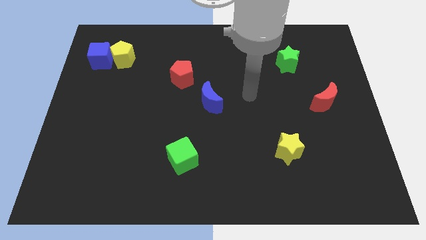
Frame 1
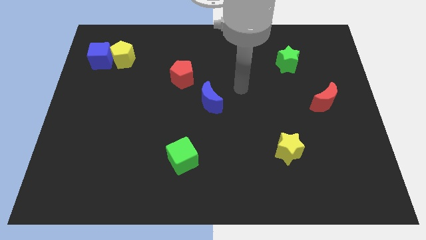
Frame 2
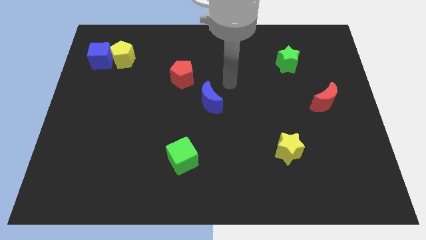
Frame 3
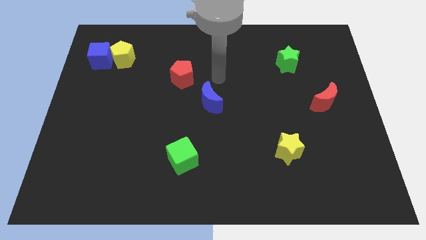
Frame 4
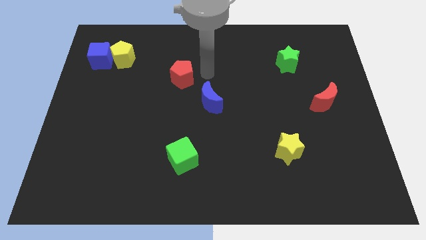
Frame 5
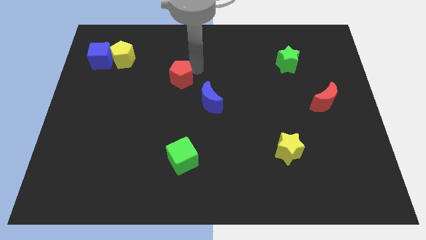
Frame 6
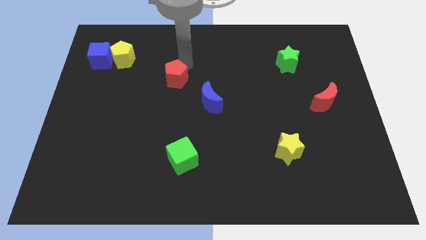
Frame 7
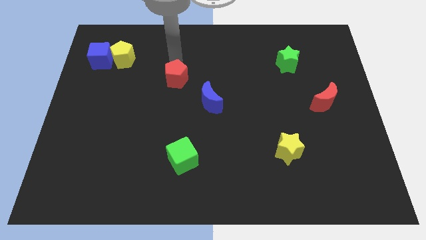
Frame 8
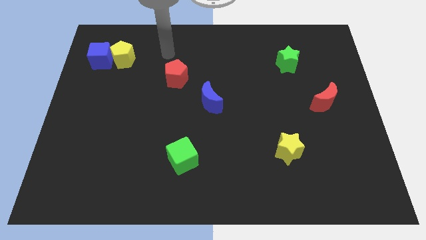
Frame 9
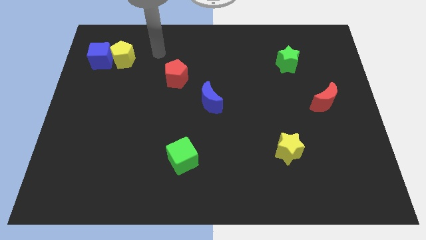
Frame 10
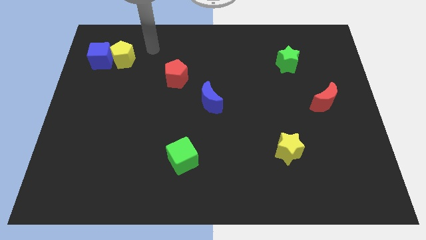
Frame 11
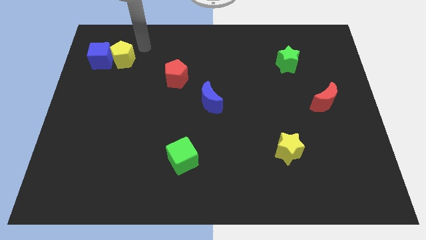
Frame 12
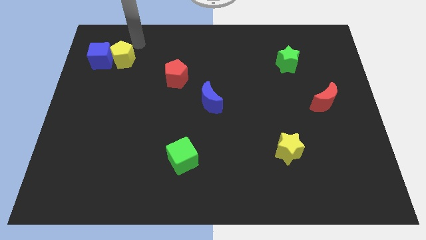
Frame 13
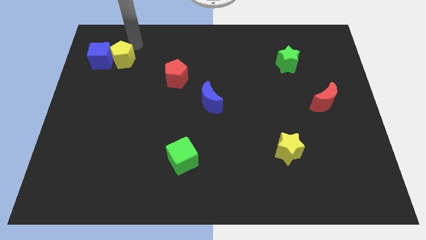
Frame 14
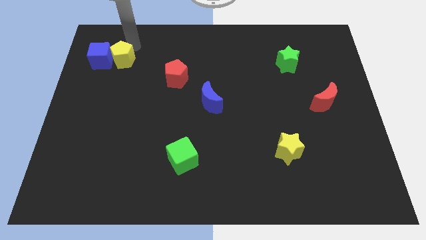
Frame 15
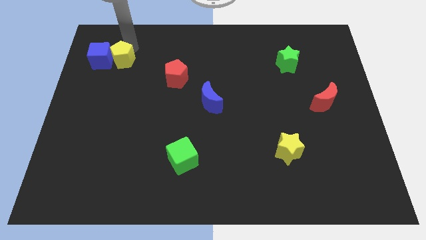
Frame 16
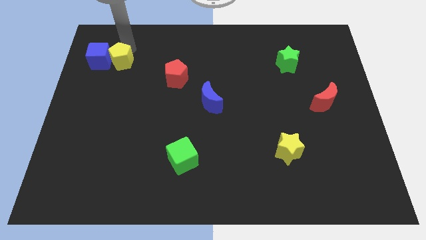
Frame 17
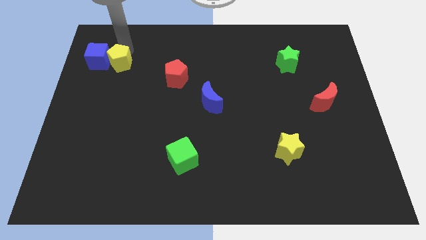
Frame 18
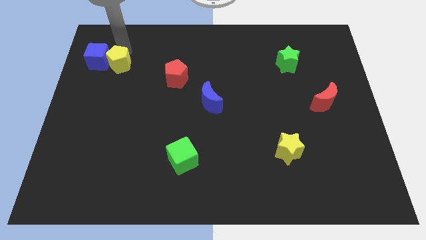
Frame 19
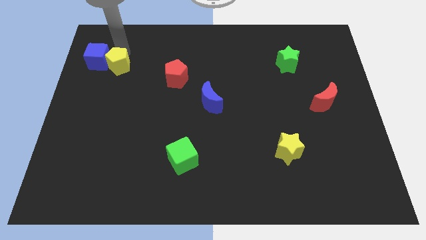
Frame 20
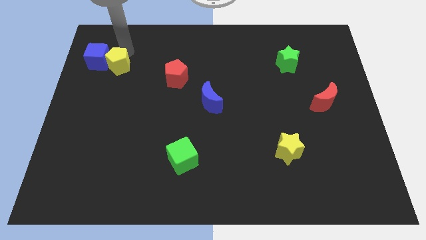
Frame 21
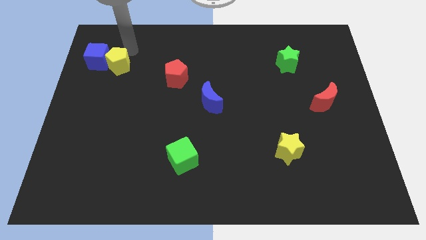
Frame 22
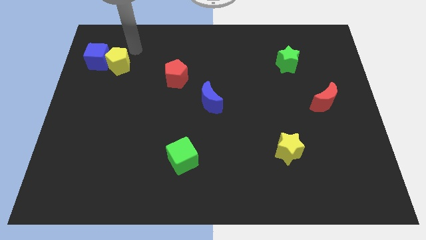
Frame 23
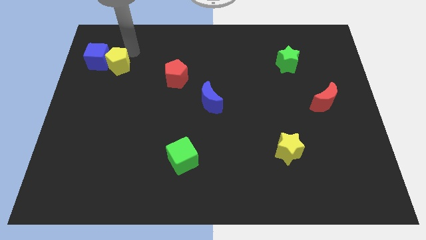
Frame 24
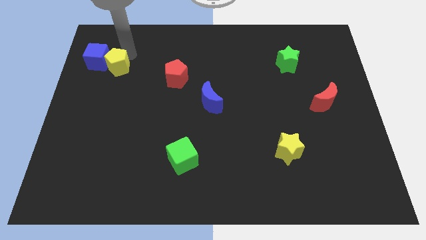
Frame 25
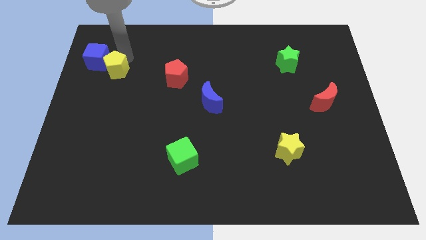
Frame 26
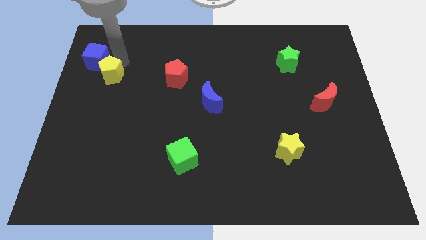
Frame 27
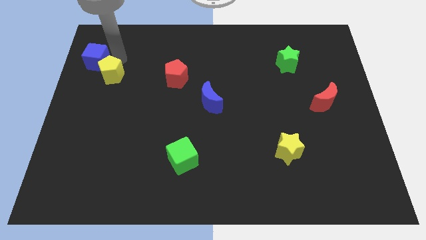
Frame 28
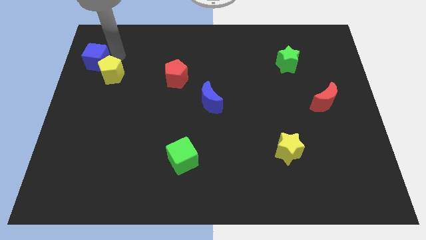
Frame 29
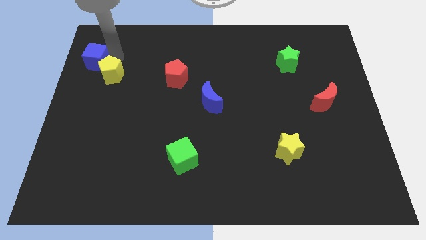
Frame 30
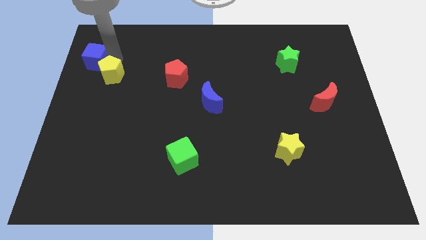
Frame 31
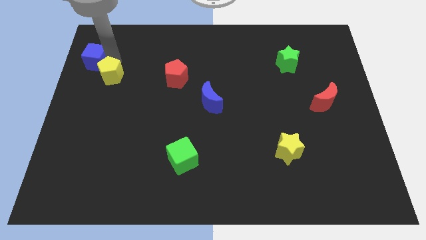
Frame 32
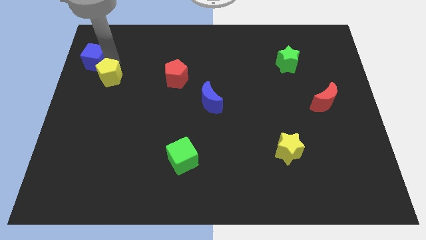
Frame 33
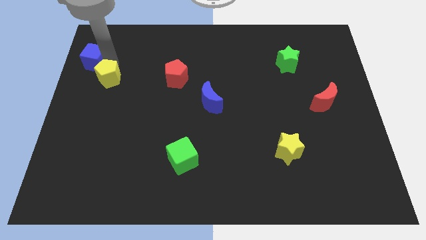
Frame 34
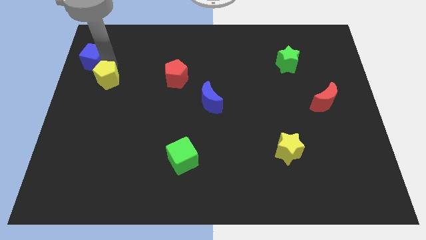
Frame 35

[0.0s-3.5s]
move the yellow pentagon a bit downwards

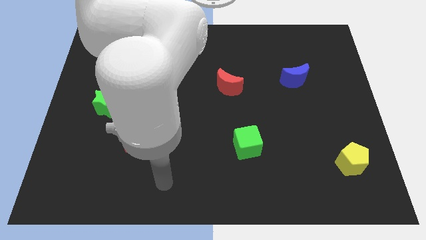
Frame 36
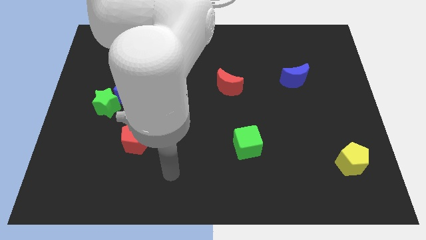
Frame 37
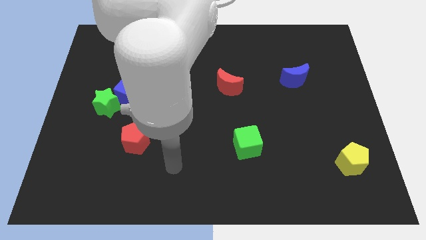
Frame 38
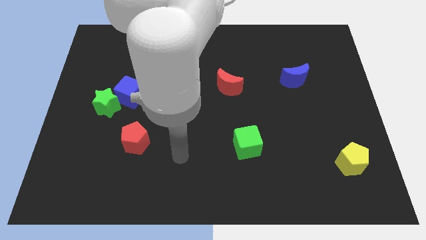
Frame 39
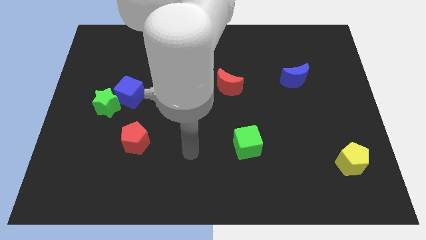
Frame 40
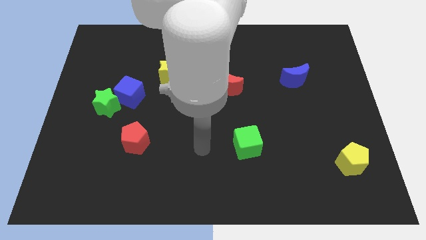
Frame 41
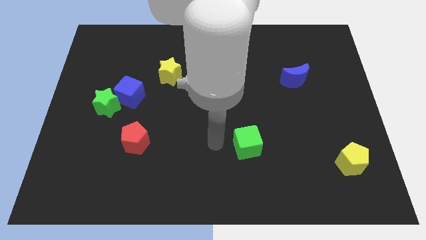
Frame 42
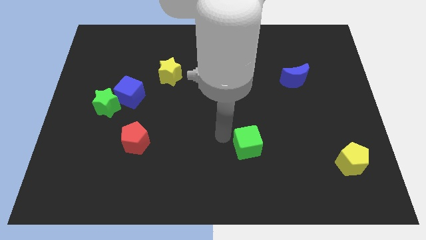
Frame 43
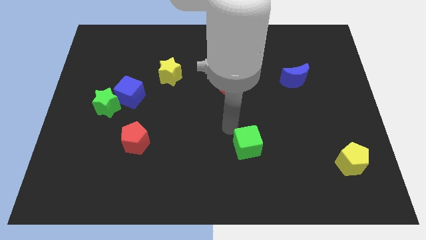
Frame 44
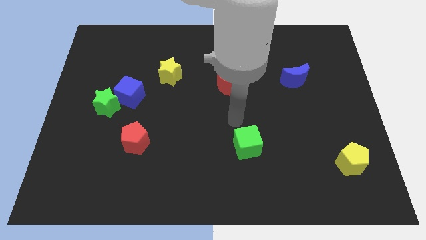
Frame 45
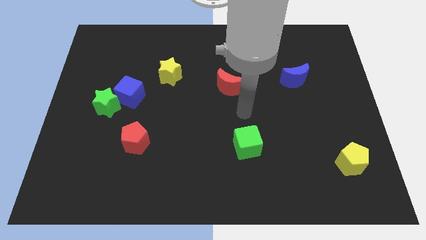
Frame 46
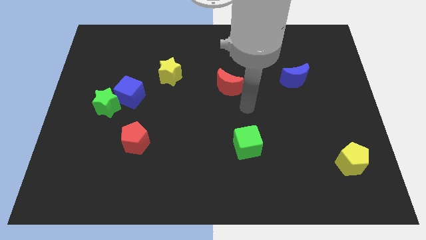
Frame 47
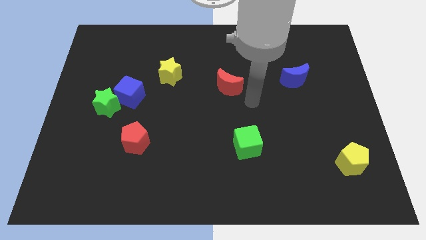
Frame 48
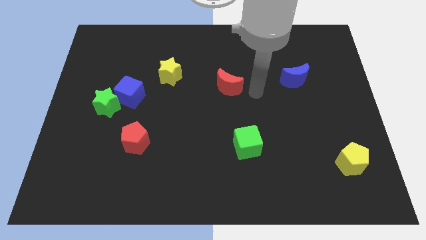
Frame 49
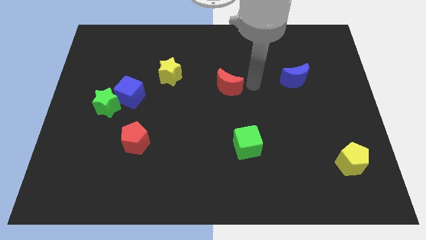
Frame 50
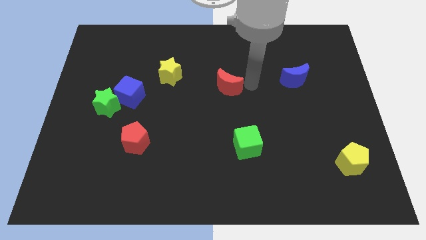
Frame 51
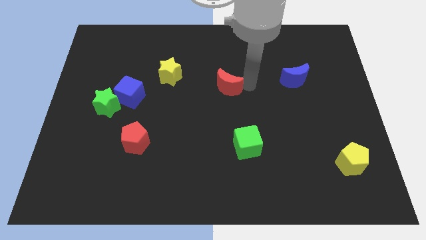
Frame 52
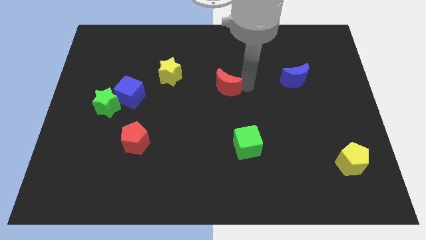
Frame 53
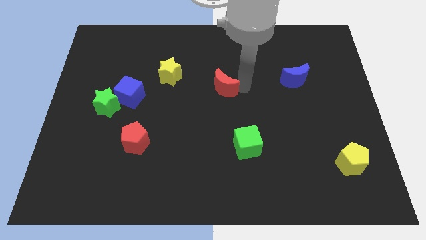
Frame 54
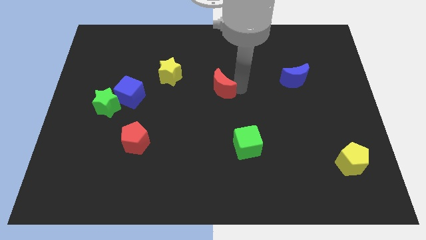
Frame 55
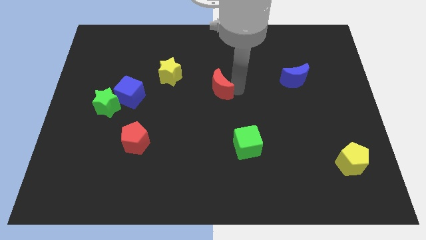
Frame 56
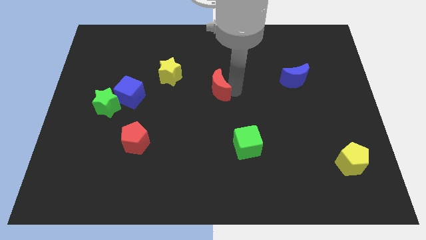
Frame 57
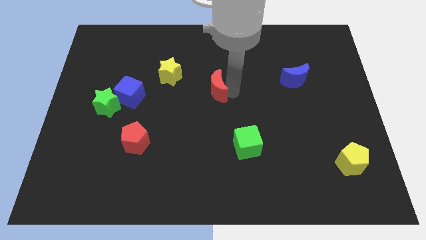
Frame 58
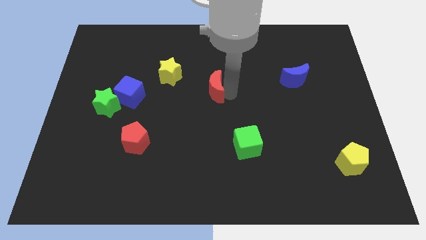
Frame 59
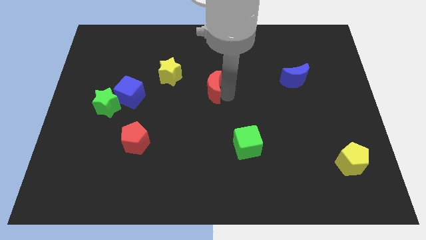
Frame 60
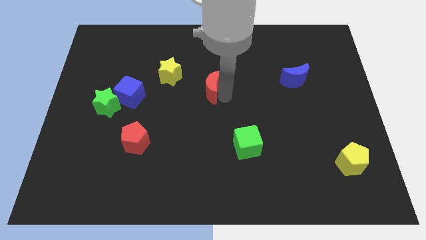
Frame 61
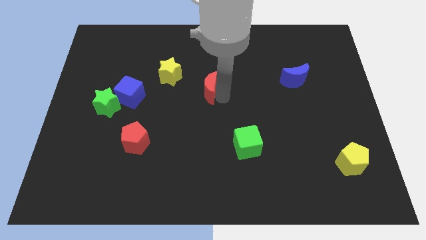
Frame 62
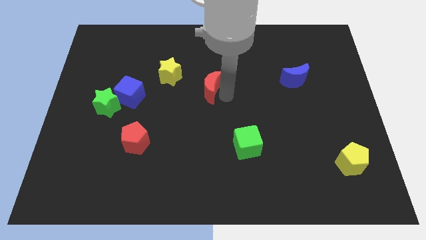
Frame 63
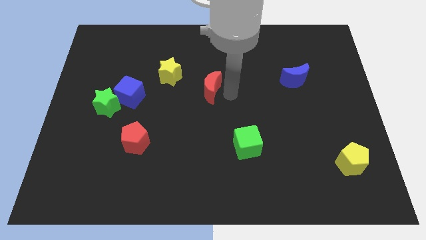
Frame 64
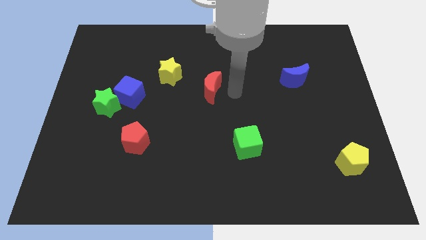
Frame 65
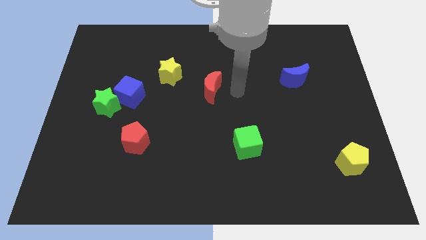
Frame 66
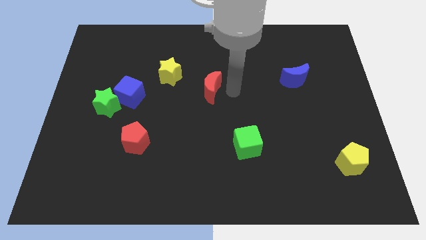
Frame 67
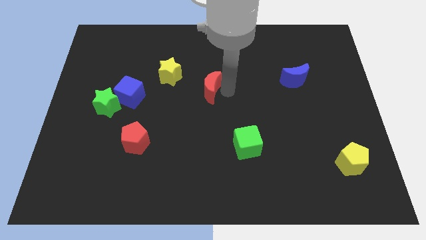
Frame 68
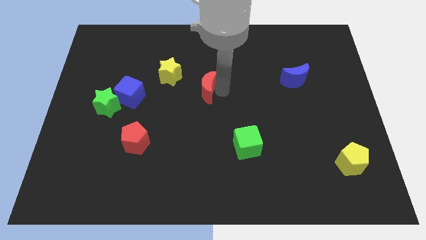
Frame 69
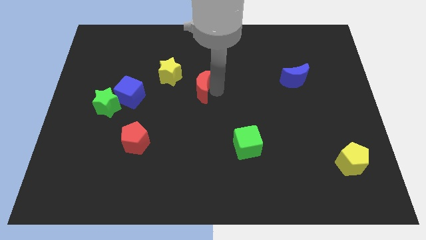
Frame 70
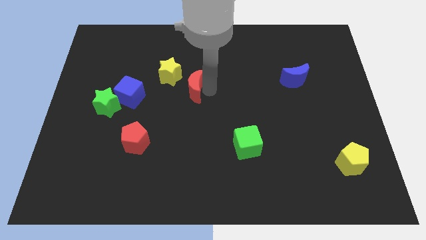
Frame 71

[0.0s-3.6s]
push the red moon left somewhat

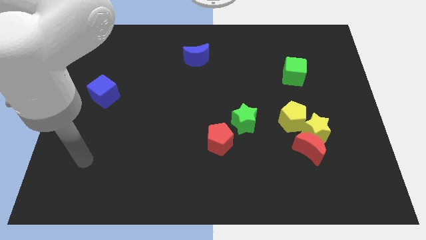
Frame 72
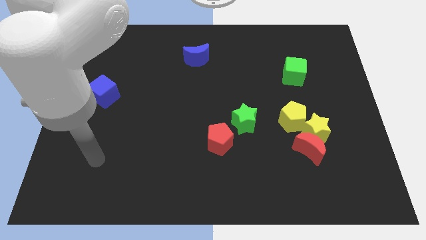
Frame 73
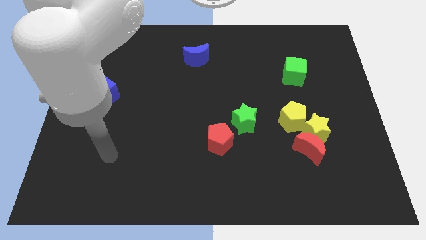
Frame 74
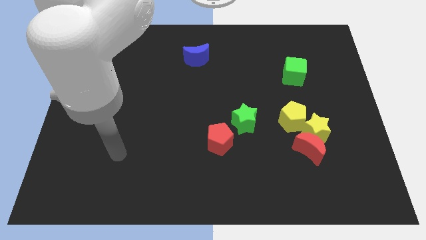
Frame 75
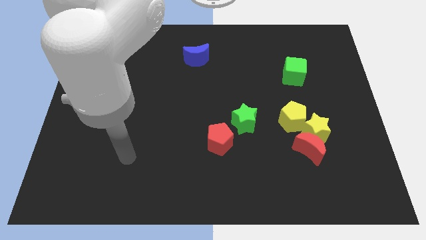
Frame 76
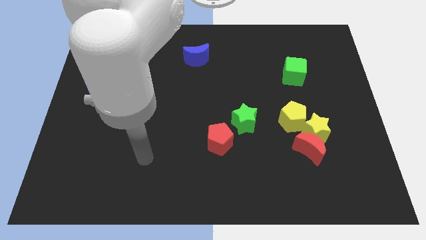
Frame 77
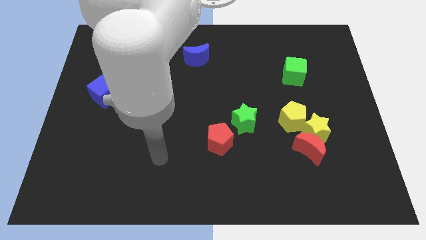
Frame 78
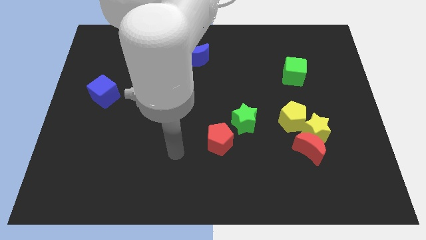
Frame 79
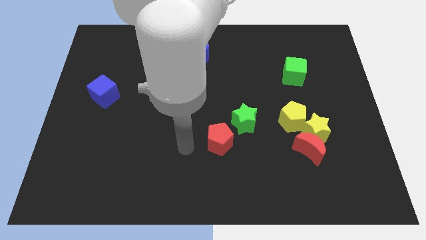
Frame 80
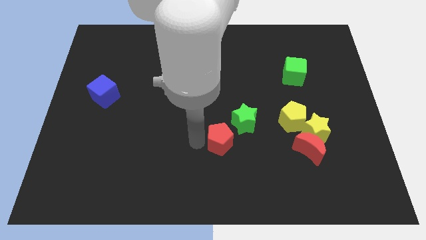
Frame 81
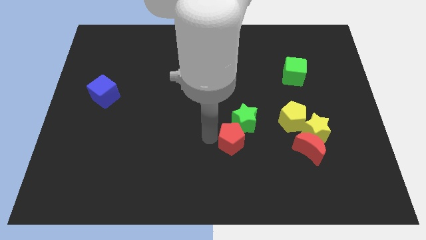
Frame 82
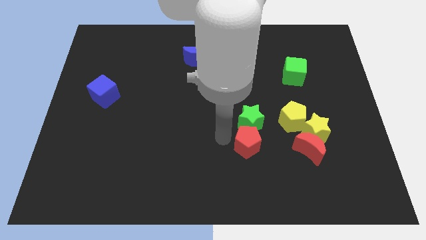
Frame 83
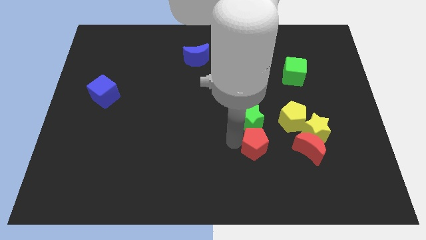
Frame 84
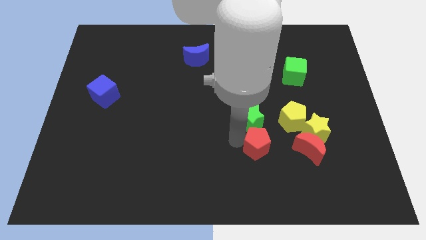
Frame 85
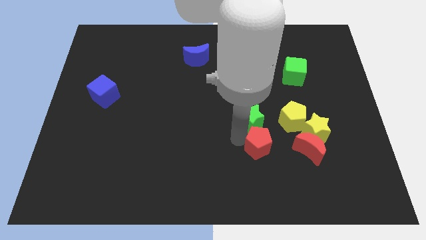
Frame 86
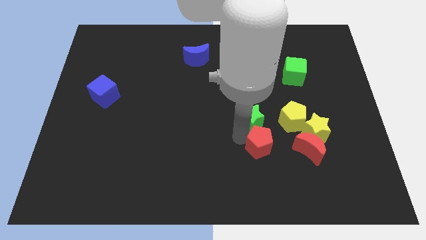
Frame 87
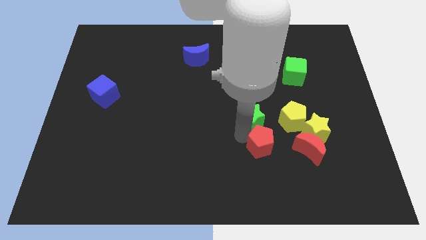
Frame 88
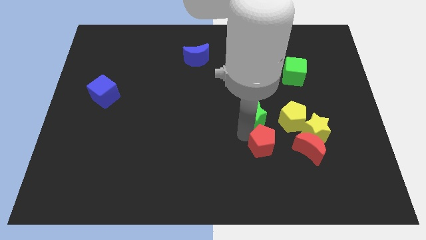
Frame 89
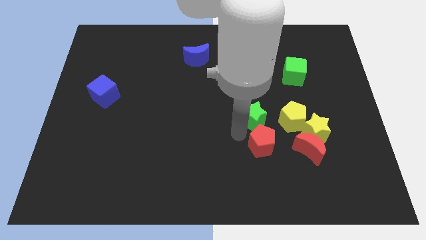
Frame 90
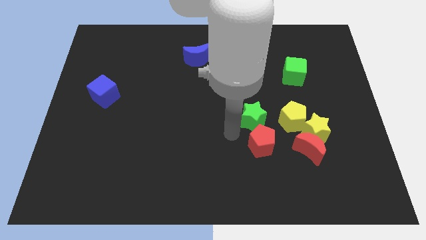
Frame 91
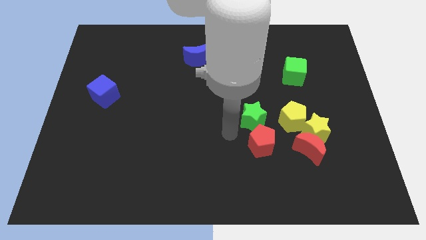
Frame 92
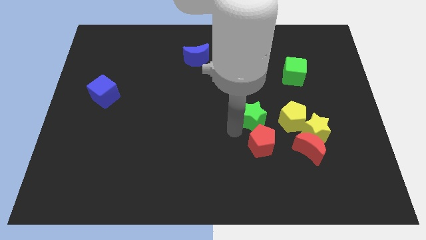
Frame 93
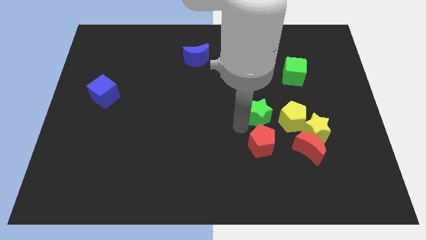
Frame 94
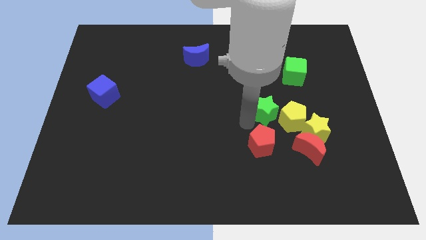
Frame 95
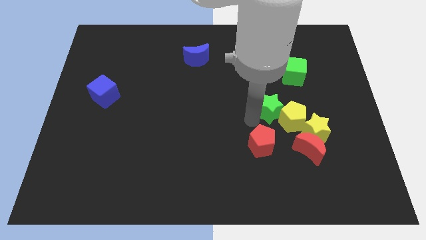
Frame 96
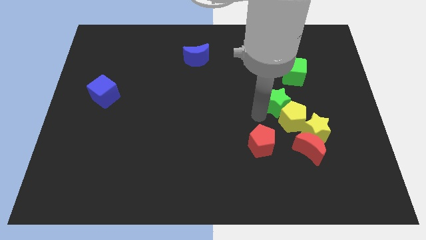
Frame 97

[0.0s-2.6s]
move the green star a little to the right
